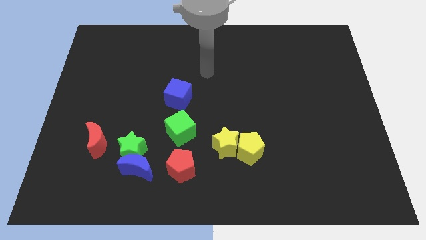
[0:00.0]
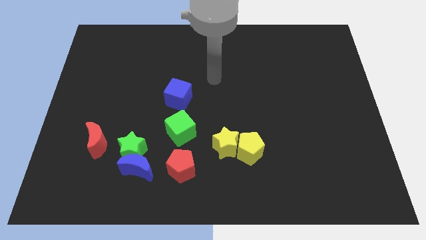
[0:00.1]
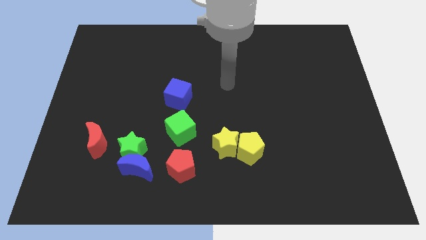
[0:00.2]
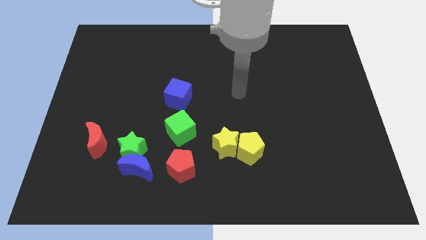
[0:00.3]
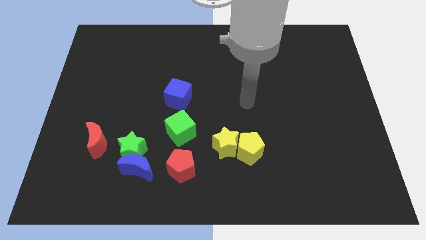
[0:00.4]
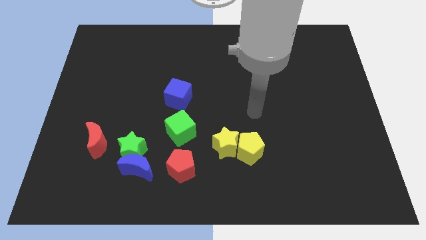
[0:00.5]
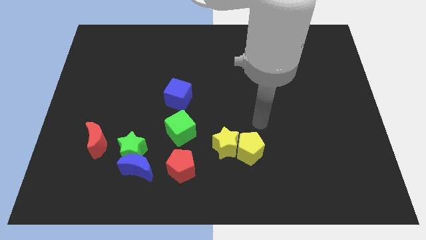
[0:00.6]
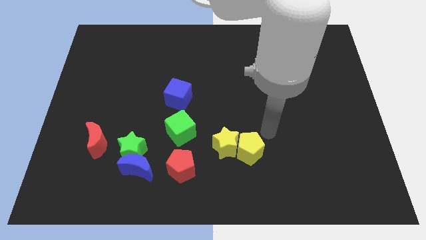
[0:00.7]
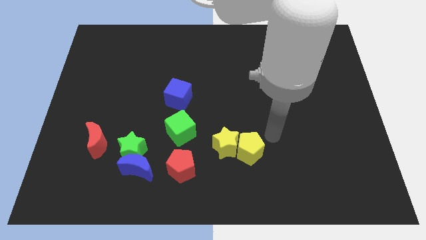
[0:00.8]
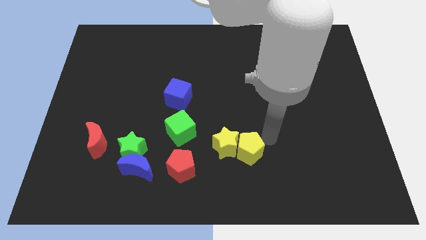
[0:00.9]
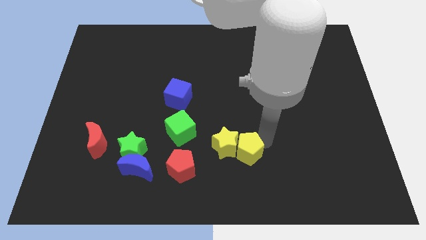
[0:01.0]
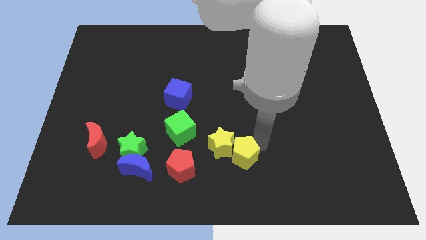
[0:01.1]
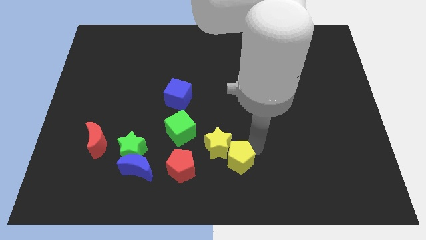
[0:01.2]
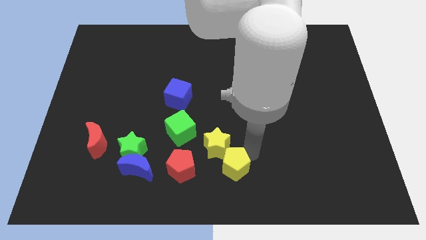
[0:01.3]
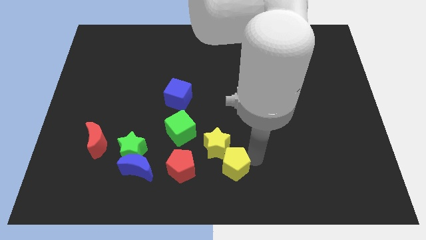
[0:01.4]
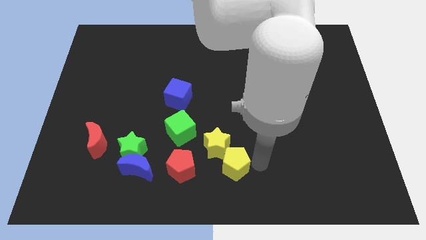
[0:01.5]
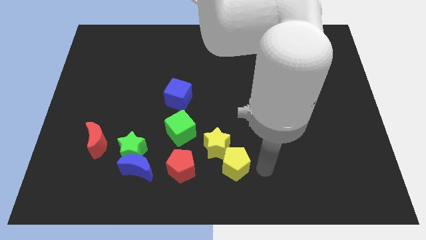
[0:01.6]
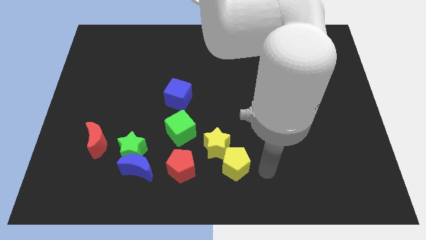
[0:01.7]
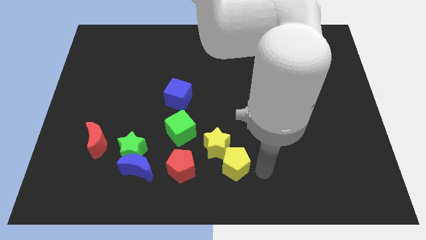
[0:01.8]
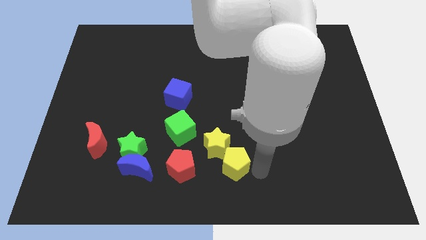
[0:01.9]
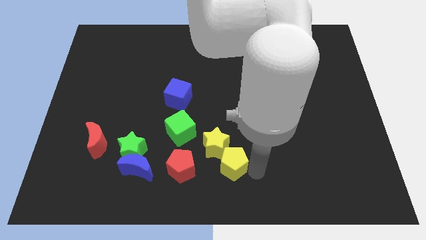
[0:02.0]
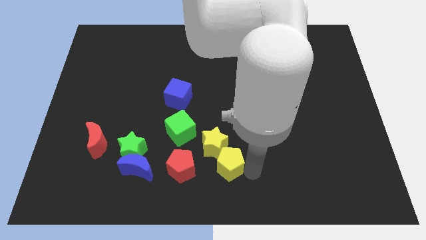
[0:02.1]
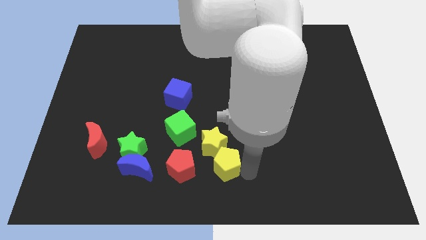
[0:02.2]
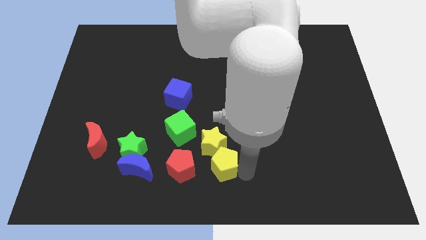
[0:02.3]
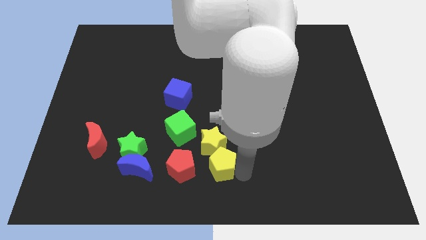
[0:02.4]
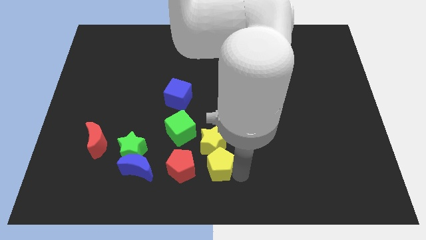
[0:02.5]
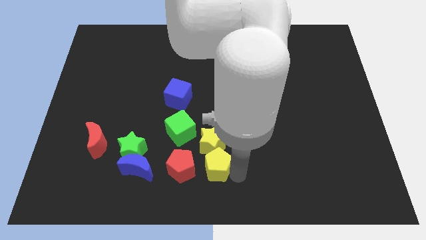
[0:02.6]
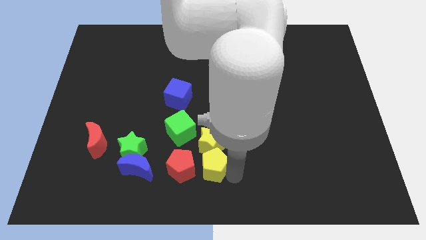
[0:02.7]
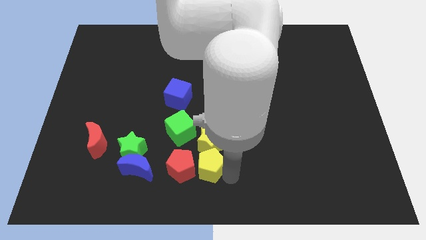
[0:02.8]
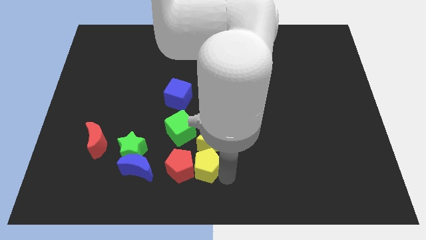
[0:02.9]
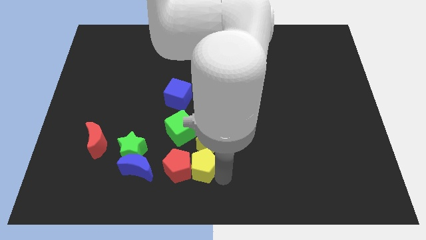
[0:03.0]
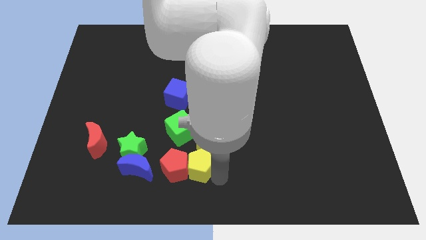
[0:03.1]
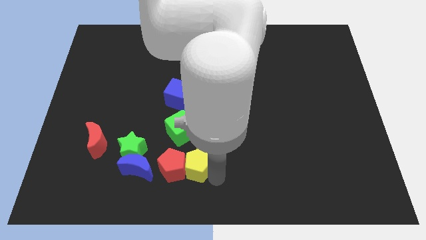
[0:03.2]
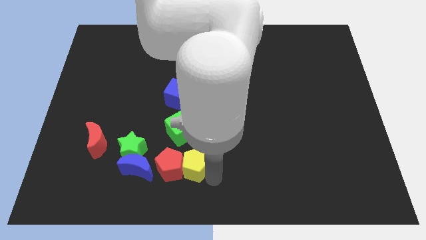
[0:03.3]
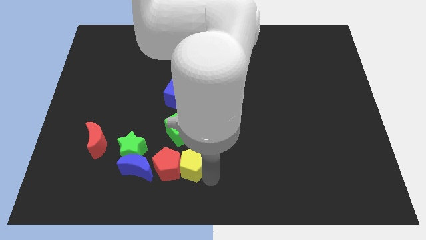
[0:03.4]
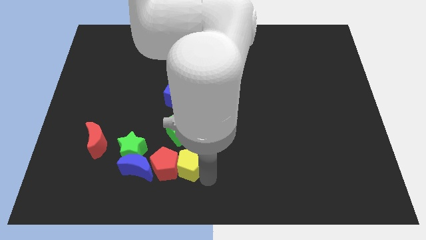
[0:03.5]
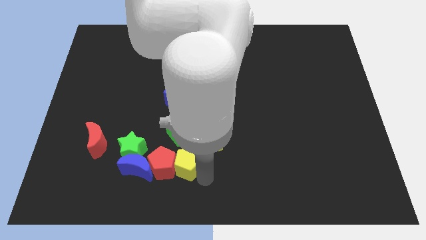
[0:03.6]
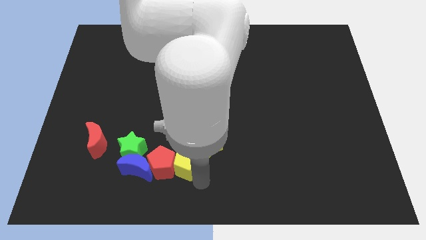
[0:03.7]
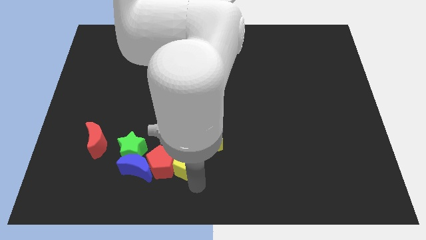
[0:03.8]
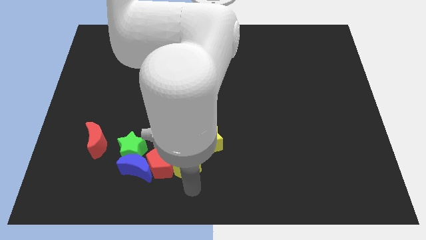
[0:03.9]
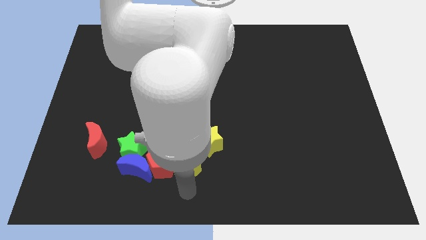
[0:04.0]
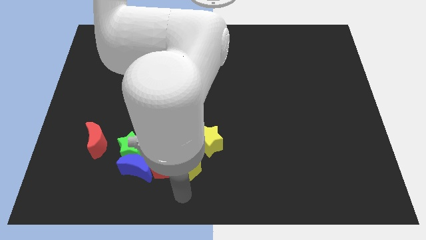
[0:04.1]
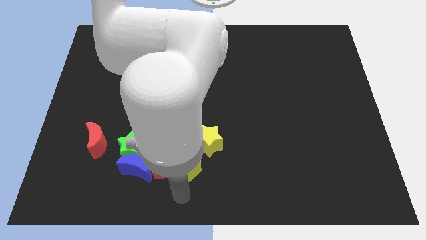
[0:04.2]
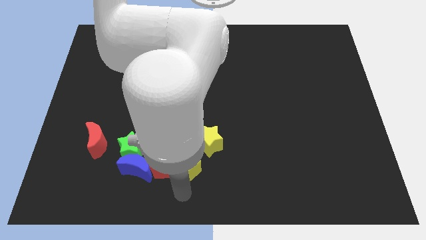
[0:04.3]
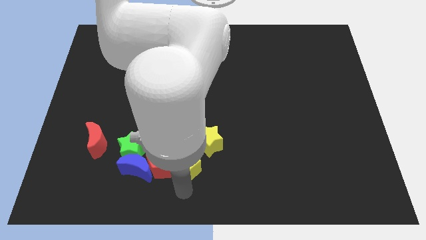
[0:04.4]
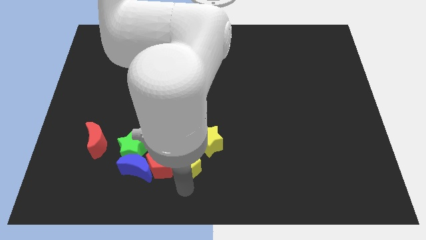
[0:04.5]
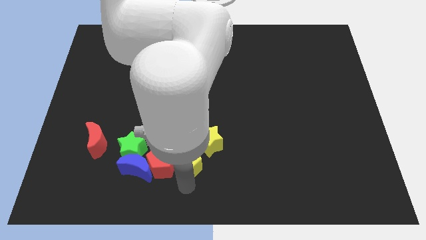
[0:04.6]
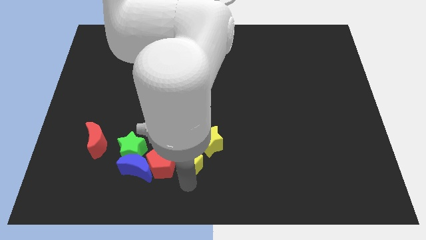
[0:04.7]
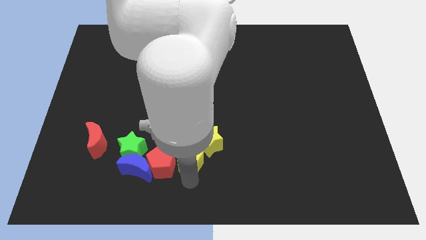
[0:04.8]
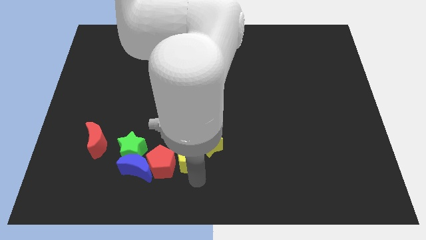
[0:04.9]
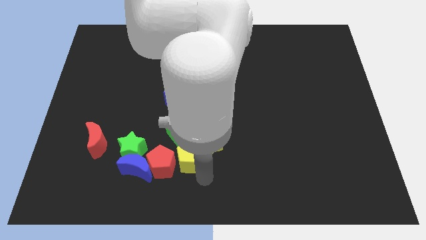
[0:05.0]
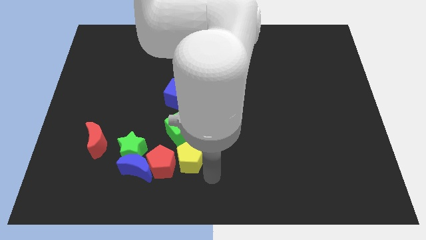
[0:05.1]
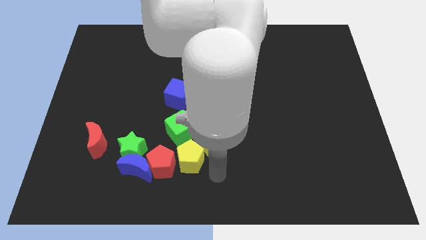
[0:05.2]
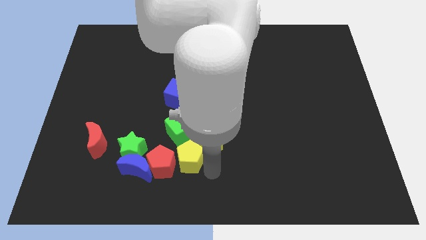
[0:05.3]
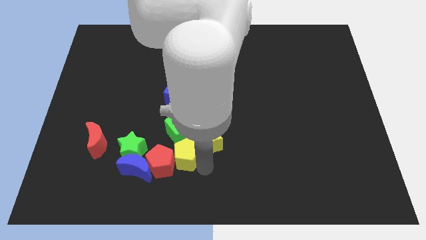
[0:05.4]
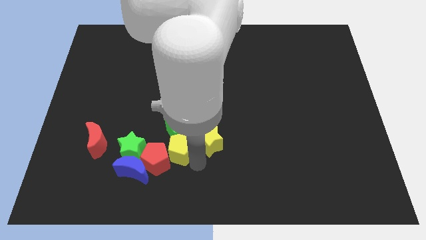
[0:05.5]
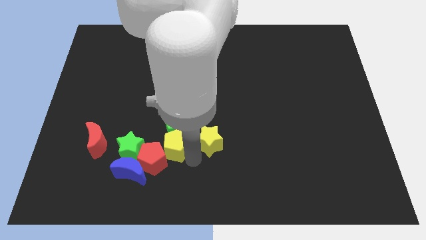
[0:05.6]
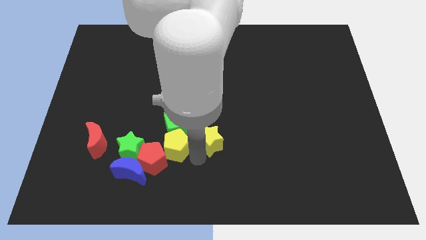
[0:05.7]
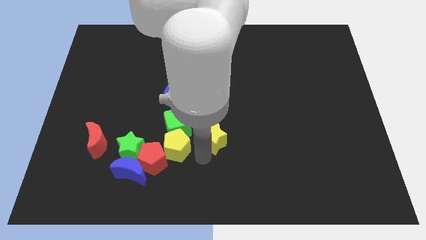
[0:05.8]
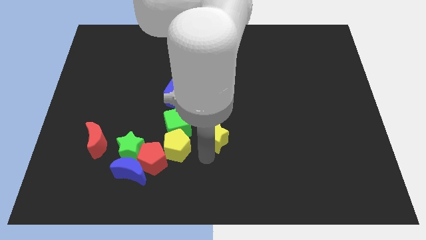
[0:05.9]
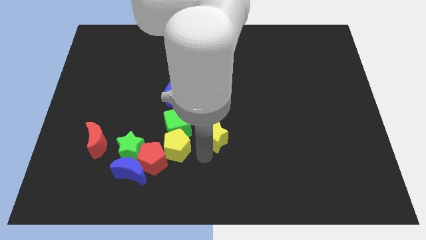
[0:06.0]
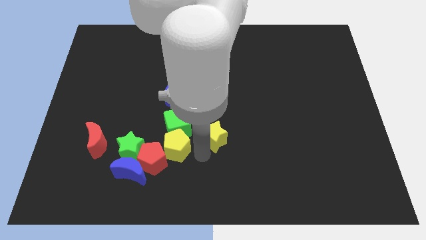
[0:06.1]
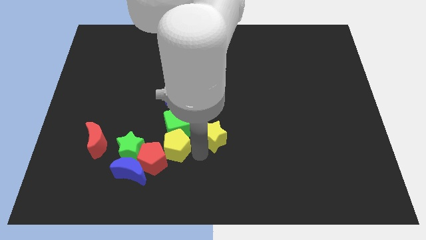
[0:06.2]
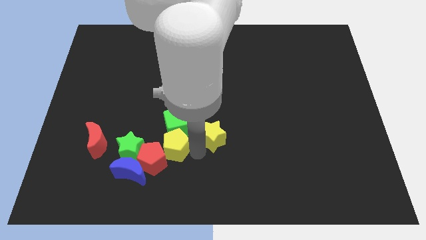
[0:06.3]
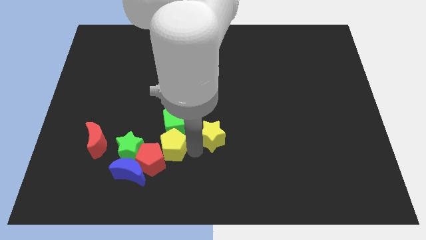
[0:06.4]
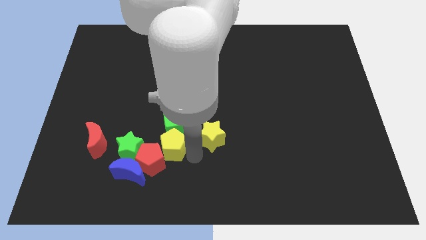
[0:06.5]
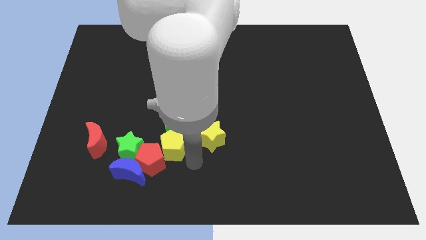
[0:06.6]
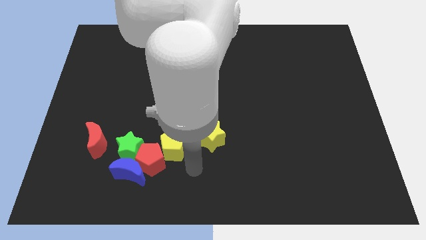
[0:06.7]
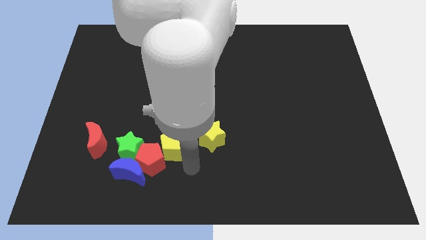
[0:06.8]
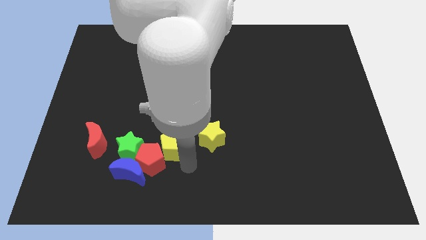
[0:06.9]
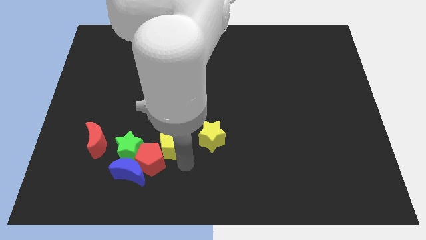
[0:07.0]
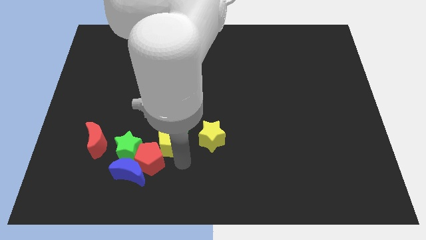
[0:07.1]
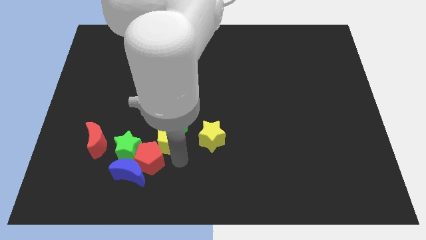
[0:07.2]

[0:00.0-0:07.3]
slide the yellow pentagon to the top right of the green star

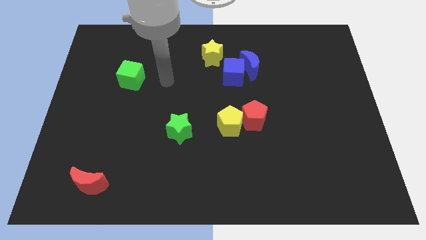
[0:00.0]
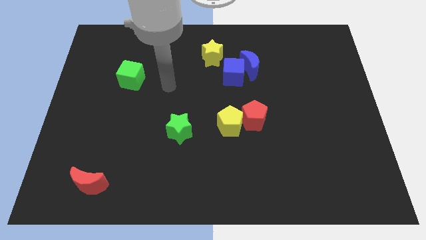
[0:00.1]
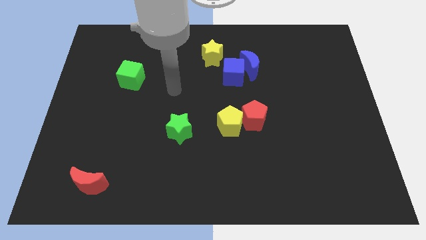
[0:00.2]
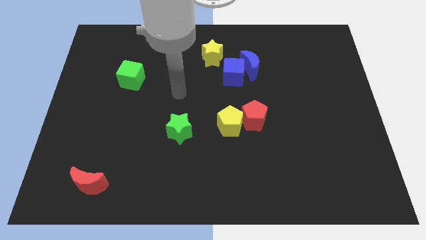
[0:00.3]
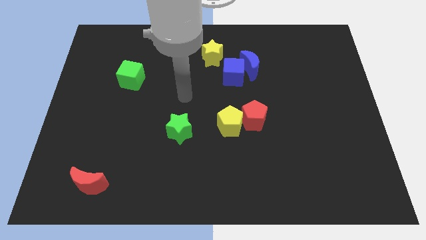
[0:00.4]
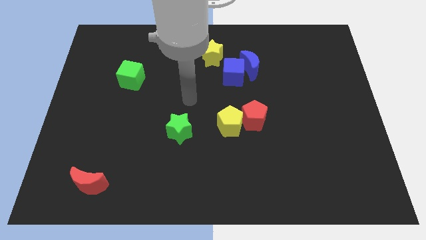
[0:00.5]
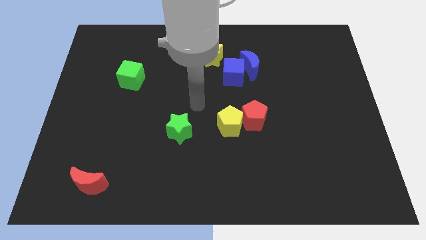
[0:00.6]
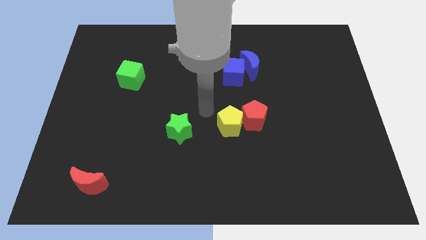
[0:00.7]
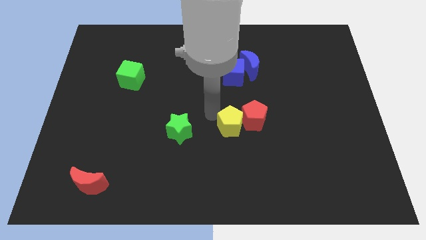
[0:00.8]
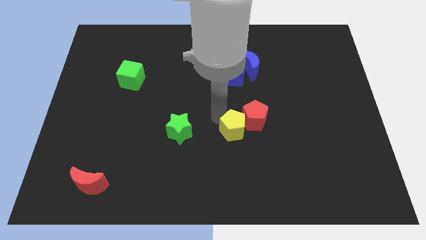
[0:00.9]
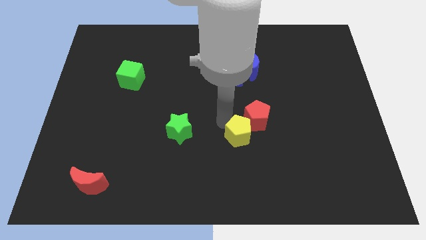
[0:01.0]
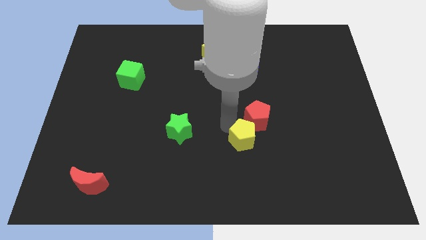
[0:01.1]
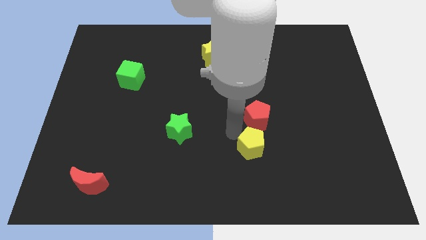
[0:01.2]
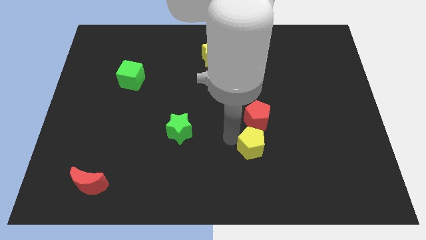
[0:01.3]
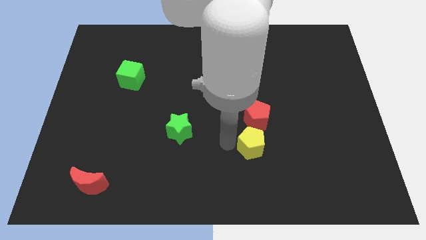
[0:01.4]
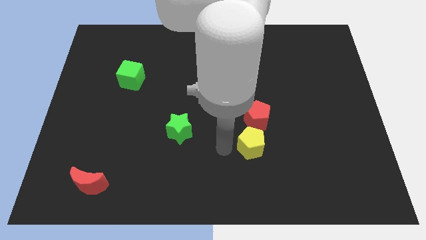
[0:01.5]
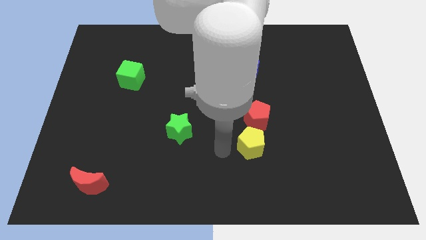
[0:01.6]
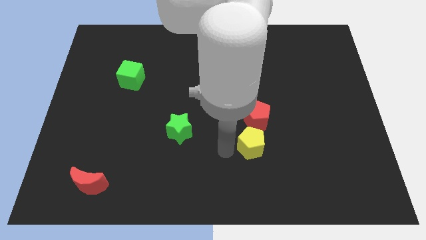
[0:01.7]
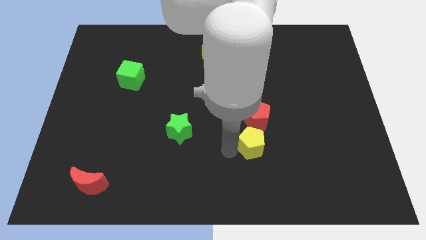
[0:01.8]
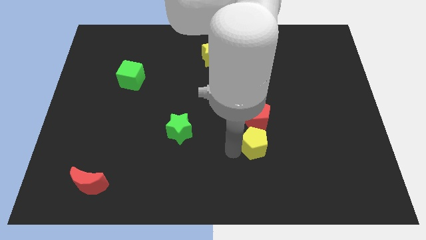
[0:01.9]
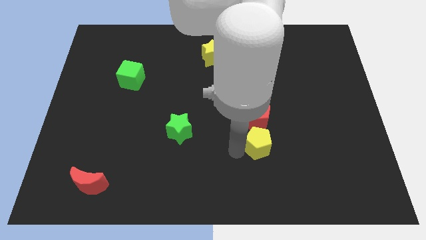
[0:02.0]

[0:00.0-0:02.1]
slide the yellow pentagon to the bottom right of the red pentagon
